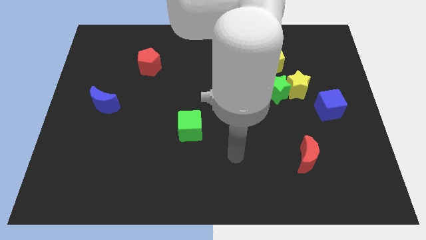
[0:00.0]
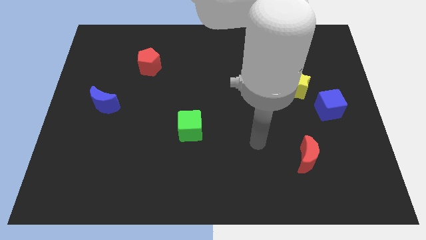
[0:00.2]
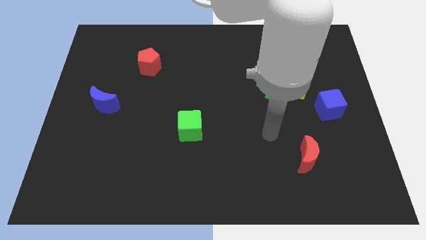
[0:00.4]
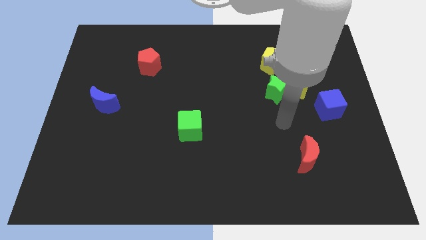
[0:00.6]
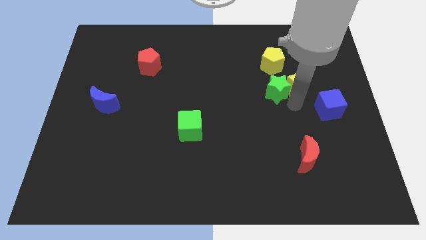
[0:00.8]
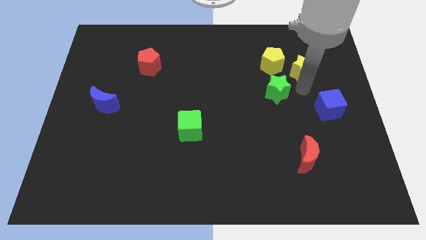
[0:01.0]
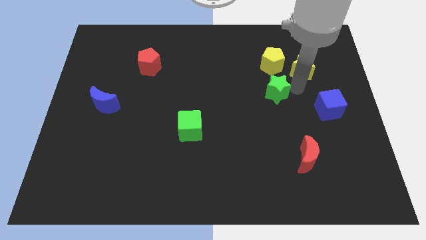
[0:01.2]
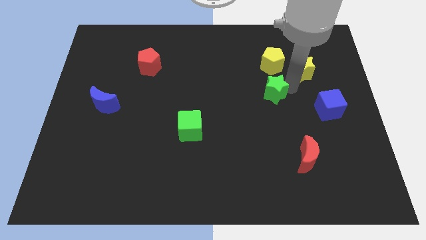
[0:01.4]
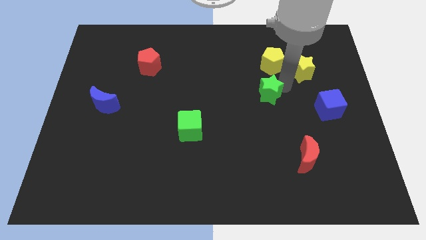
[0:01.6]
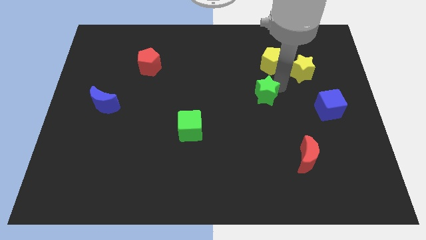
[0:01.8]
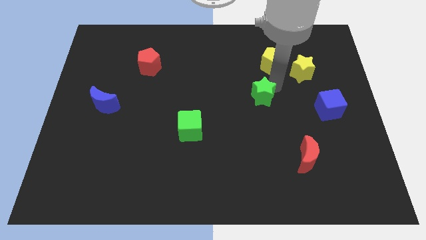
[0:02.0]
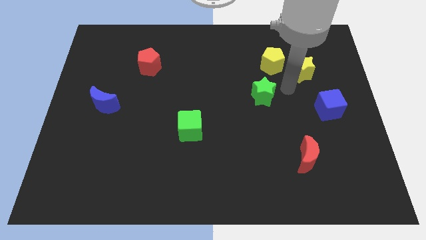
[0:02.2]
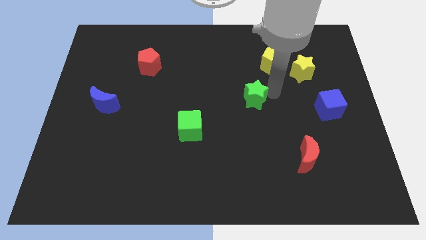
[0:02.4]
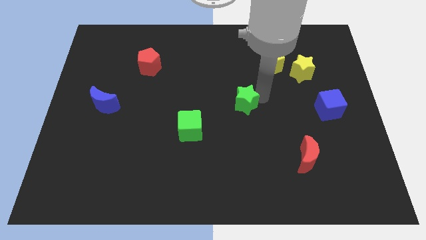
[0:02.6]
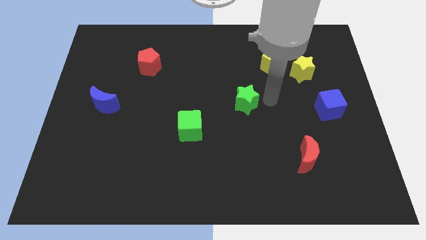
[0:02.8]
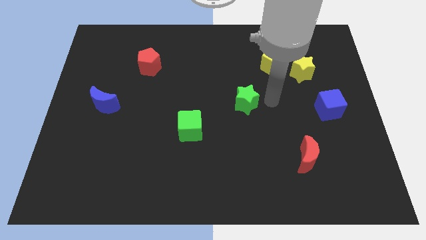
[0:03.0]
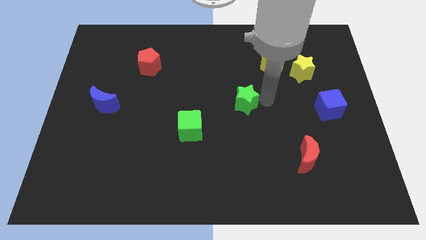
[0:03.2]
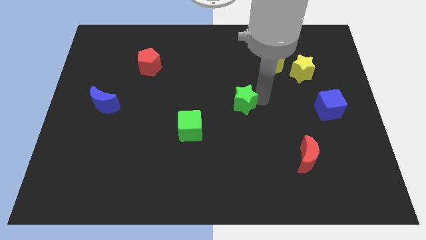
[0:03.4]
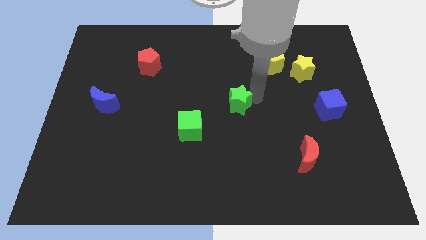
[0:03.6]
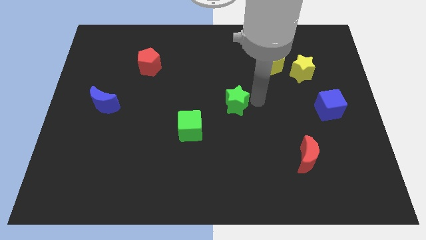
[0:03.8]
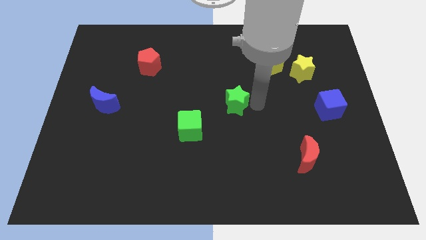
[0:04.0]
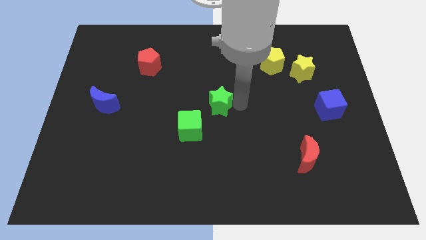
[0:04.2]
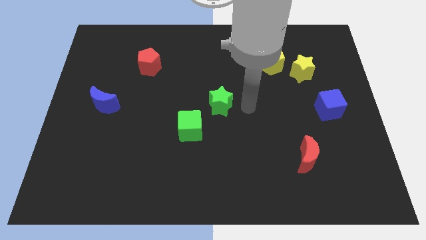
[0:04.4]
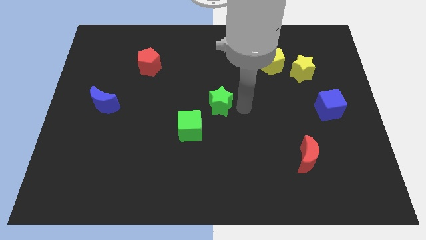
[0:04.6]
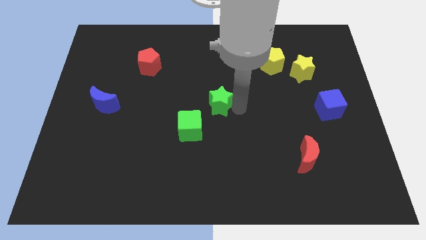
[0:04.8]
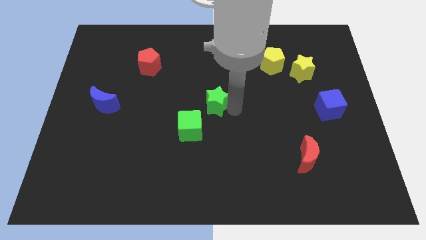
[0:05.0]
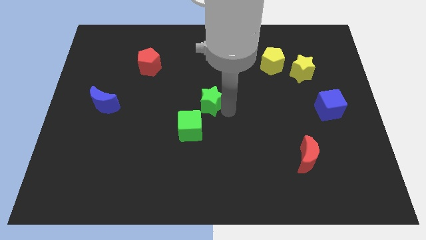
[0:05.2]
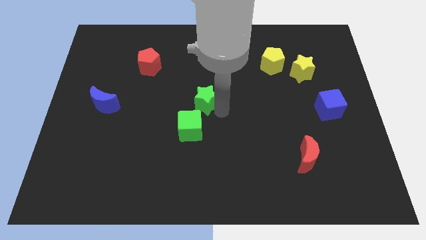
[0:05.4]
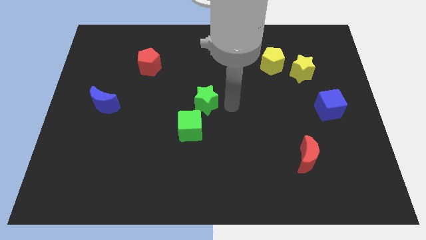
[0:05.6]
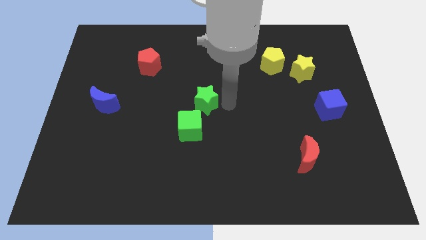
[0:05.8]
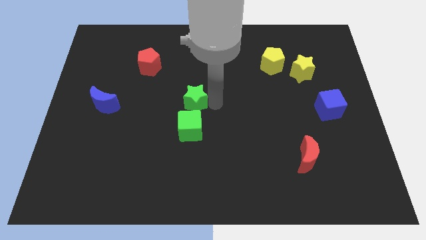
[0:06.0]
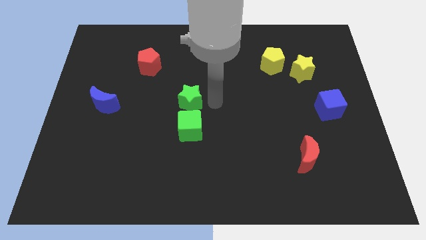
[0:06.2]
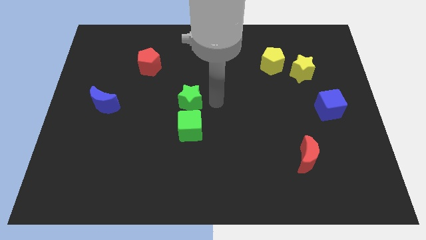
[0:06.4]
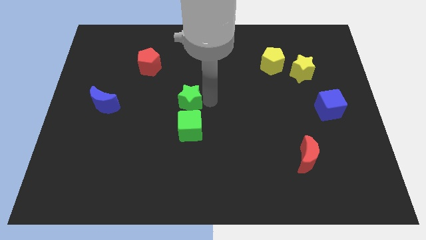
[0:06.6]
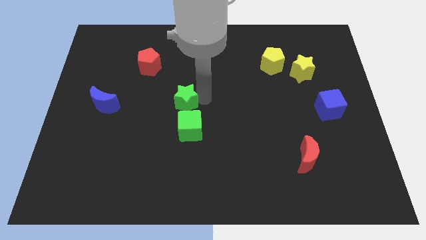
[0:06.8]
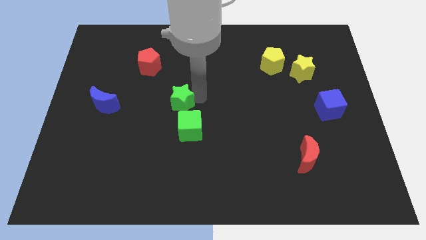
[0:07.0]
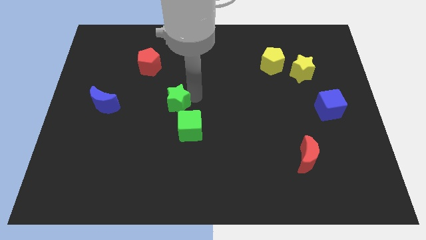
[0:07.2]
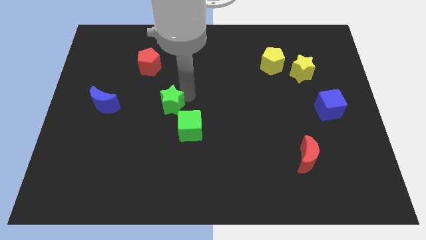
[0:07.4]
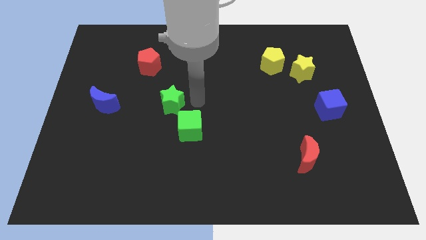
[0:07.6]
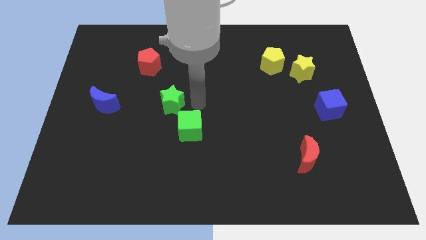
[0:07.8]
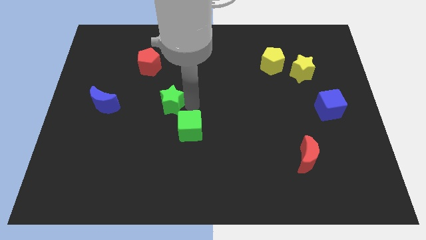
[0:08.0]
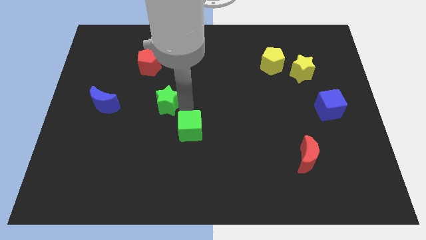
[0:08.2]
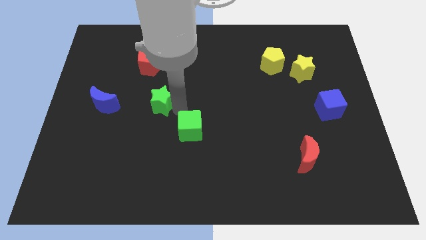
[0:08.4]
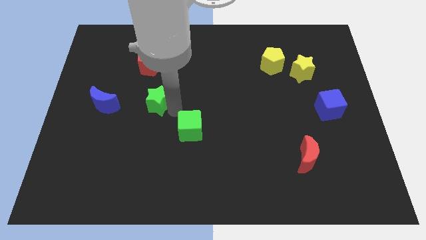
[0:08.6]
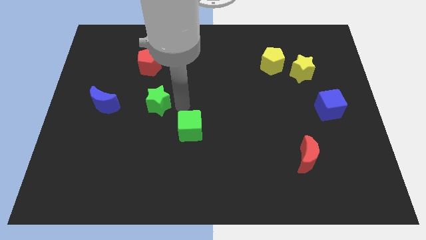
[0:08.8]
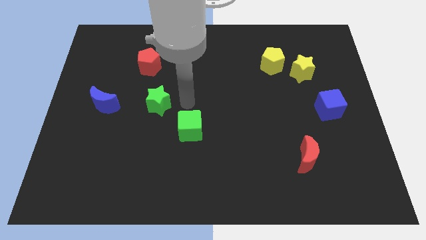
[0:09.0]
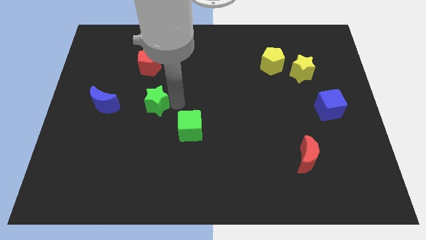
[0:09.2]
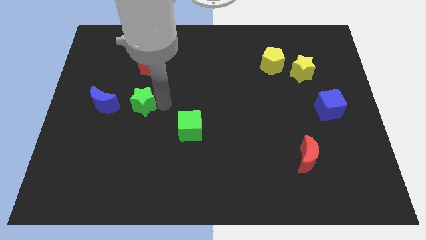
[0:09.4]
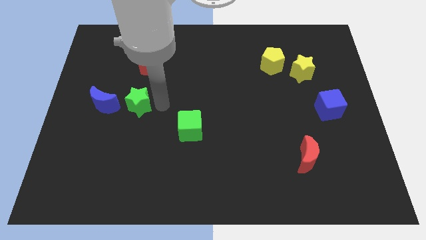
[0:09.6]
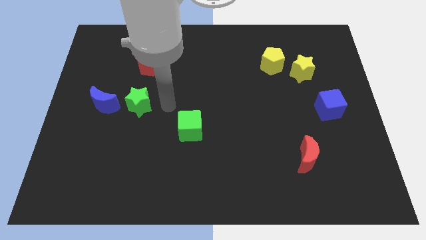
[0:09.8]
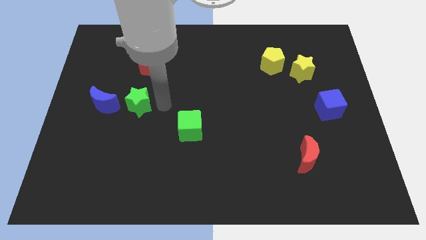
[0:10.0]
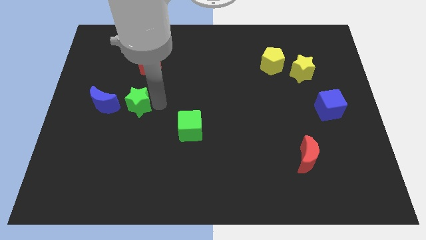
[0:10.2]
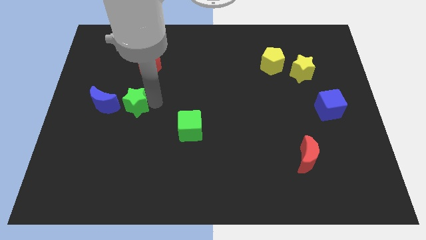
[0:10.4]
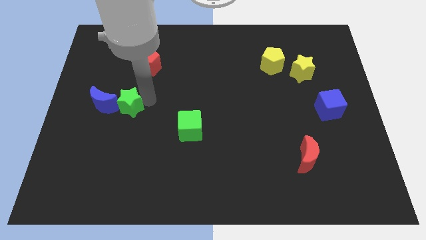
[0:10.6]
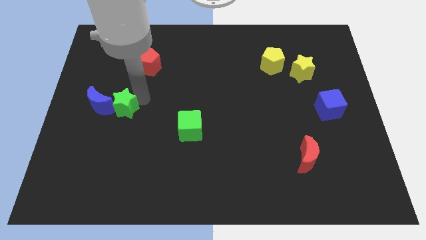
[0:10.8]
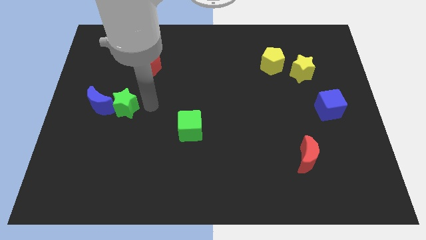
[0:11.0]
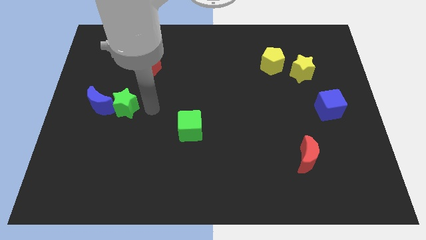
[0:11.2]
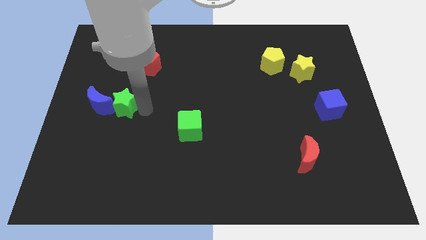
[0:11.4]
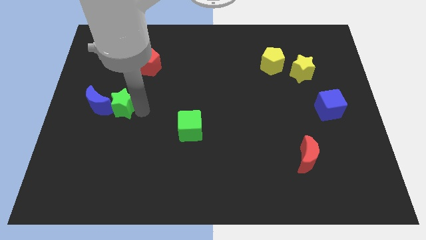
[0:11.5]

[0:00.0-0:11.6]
push the green star close to the blue moon

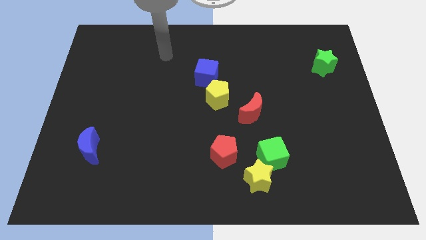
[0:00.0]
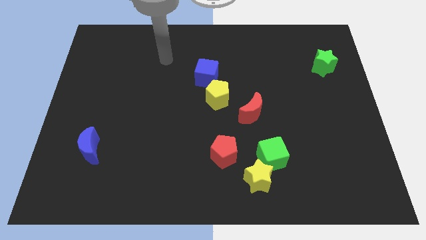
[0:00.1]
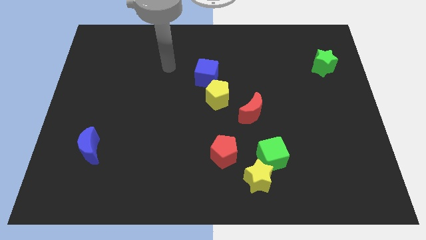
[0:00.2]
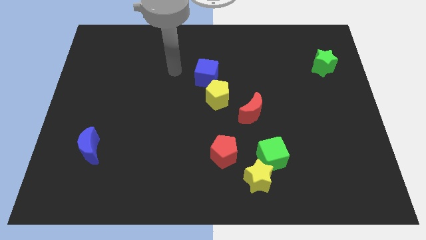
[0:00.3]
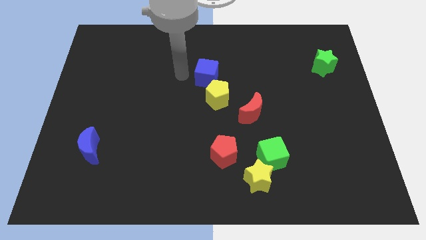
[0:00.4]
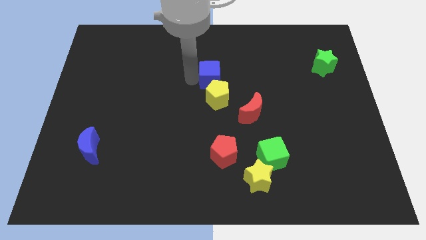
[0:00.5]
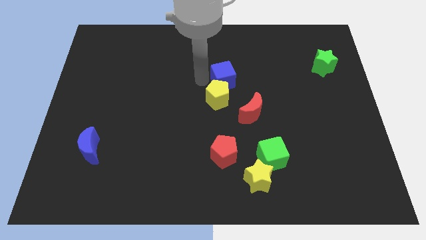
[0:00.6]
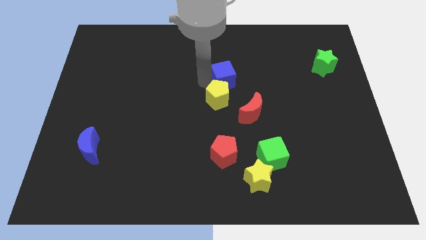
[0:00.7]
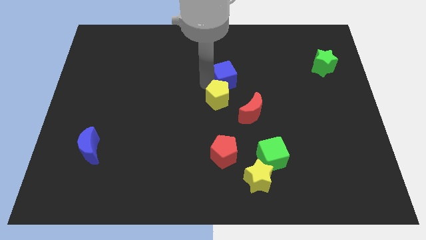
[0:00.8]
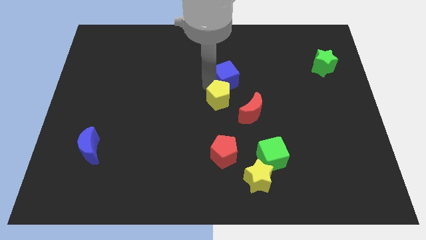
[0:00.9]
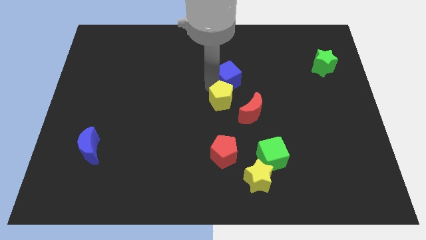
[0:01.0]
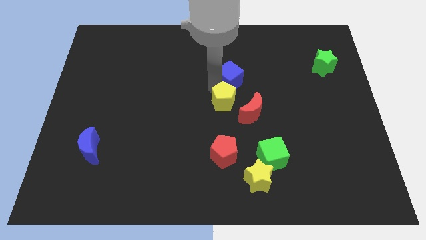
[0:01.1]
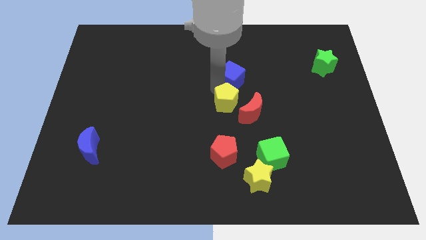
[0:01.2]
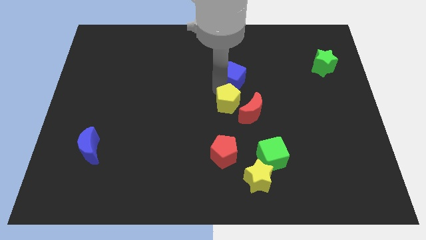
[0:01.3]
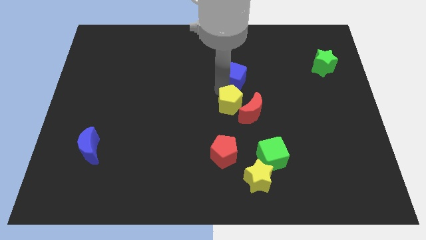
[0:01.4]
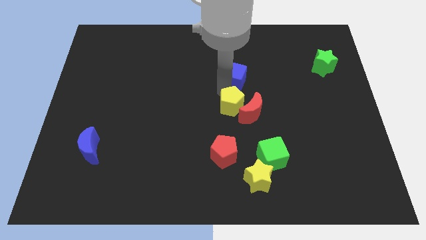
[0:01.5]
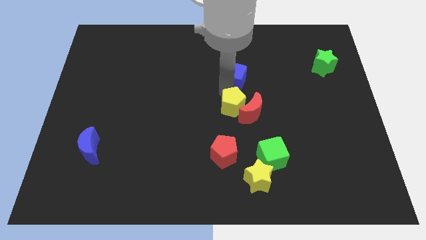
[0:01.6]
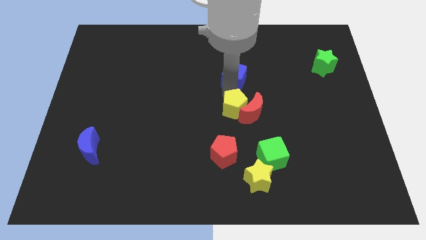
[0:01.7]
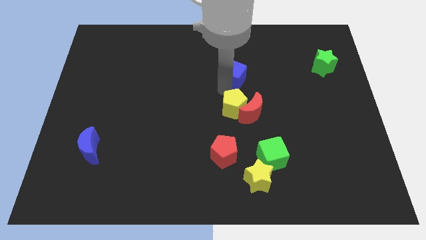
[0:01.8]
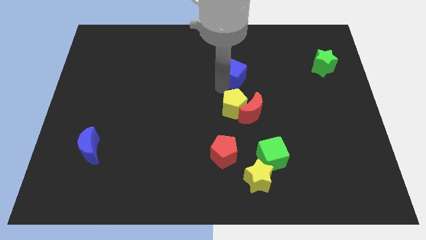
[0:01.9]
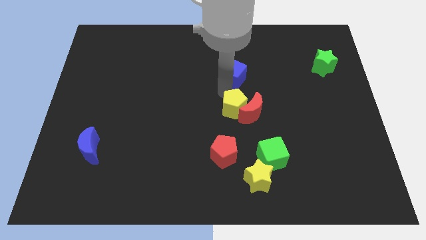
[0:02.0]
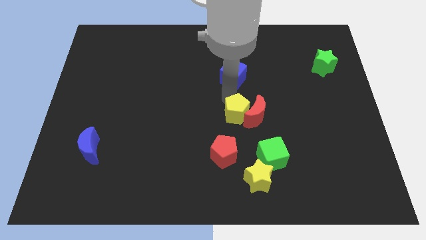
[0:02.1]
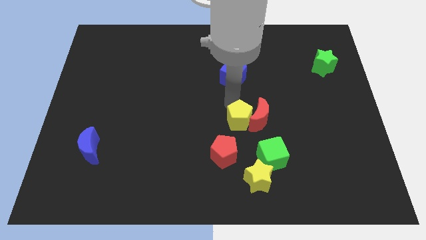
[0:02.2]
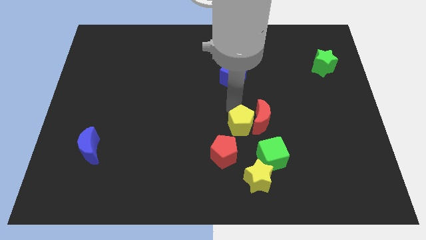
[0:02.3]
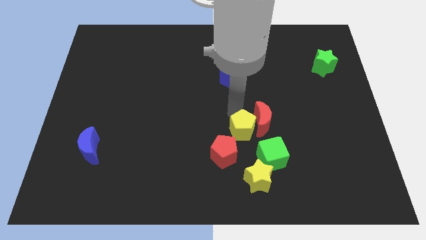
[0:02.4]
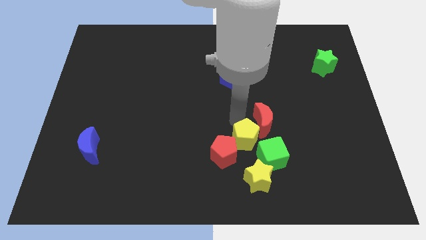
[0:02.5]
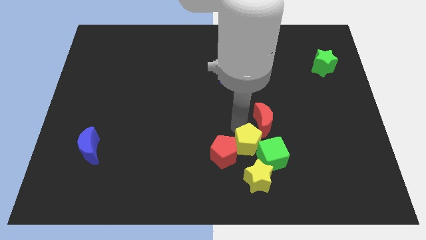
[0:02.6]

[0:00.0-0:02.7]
push the yellow pentagon next to the green cube
